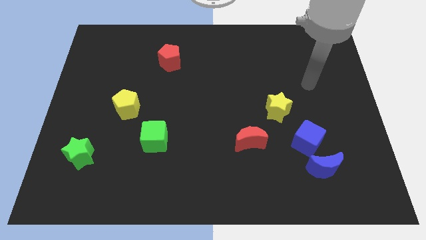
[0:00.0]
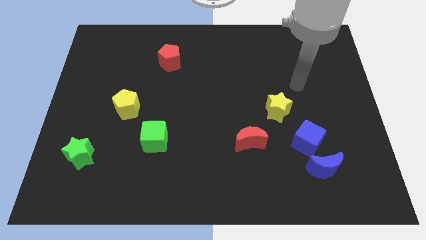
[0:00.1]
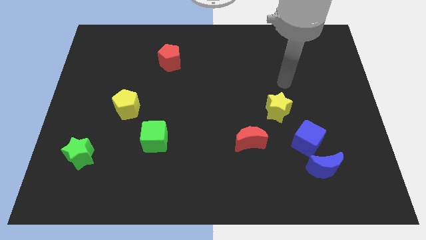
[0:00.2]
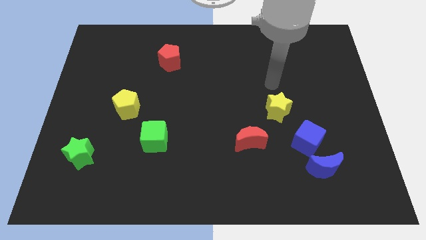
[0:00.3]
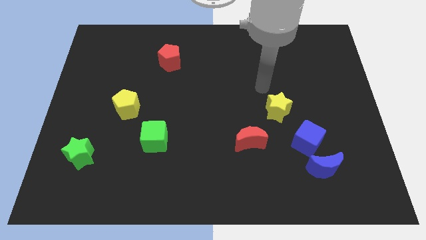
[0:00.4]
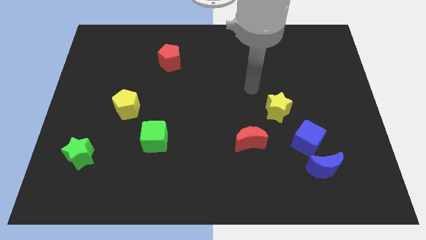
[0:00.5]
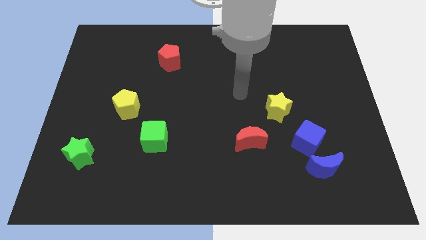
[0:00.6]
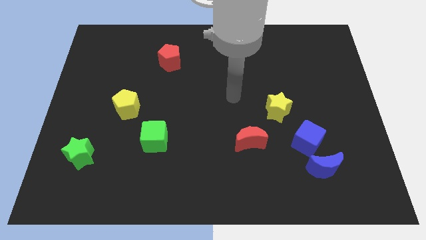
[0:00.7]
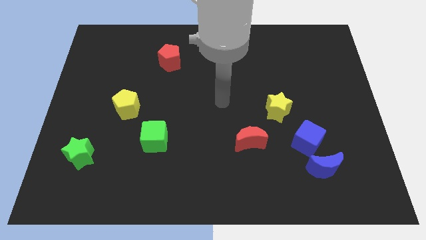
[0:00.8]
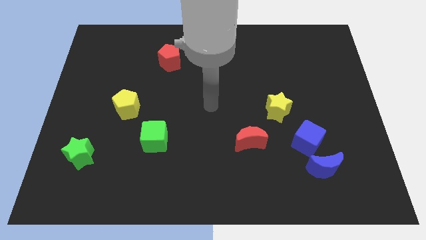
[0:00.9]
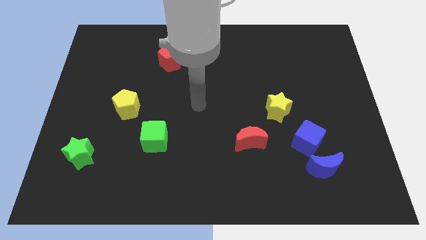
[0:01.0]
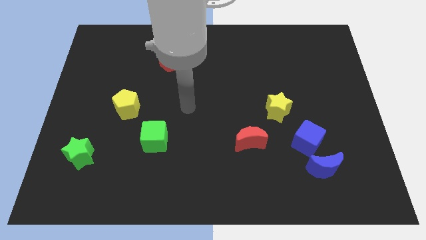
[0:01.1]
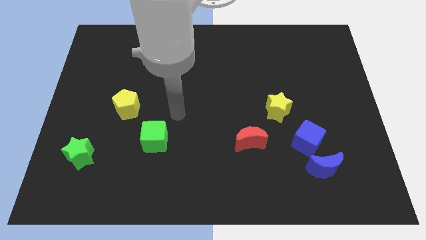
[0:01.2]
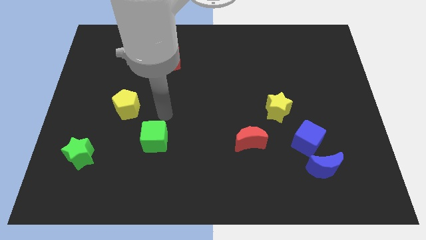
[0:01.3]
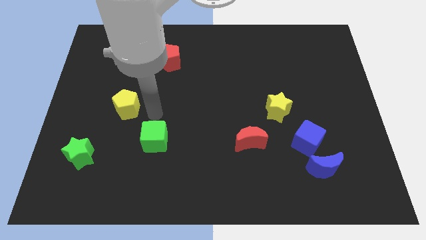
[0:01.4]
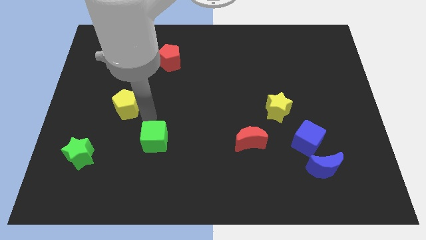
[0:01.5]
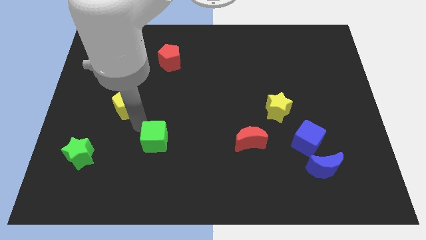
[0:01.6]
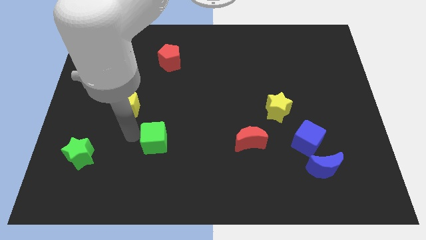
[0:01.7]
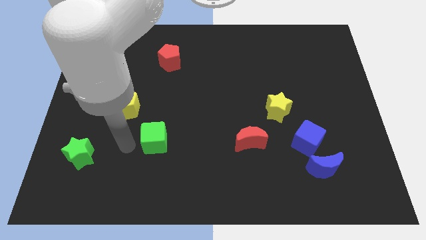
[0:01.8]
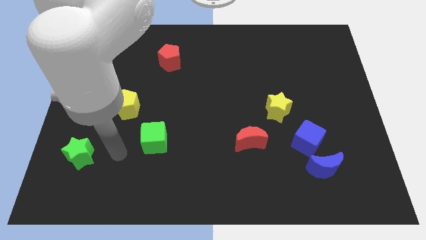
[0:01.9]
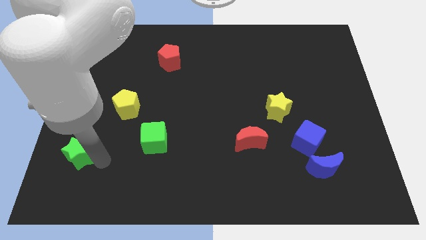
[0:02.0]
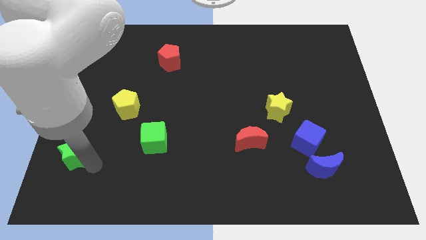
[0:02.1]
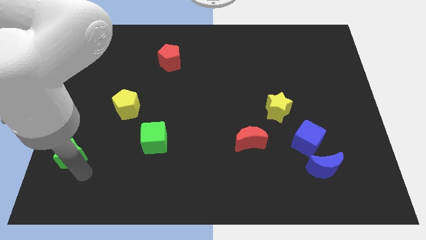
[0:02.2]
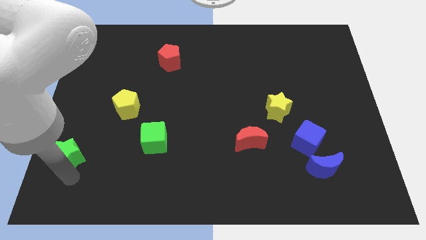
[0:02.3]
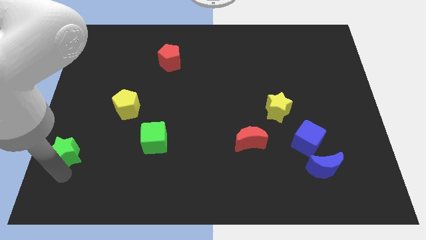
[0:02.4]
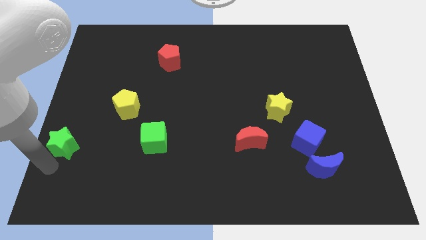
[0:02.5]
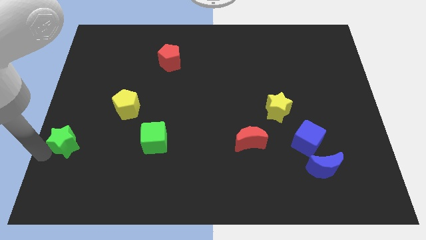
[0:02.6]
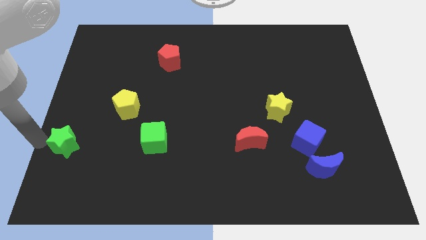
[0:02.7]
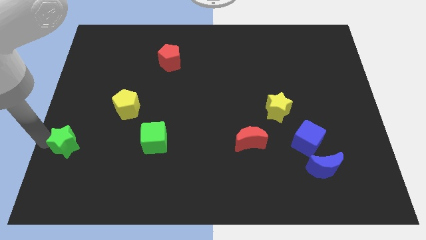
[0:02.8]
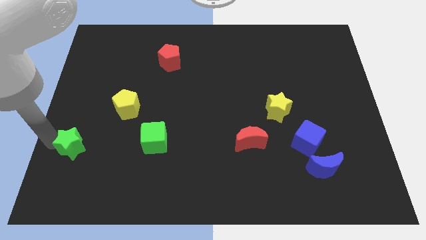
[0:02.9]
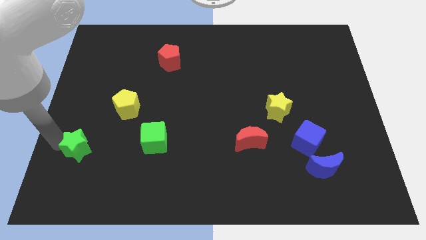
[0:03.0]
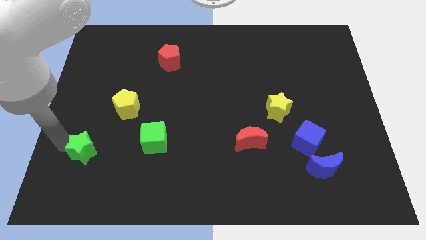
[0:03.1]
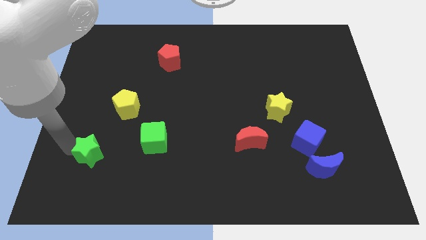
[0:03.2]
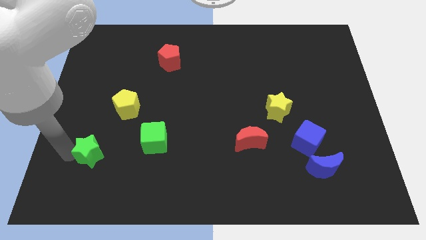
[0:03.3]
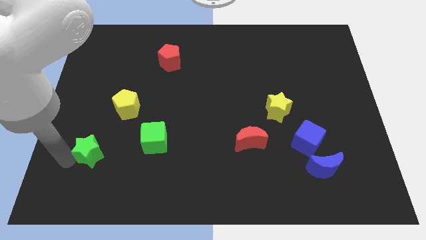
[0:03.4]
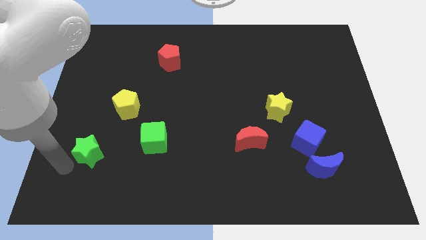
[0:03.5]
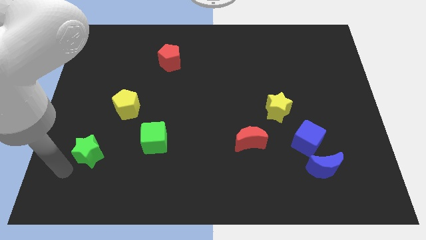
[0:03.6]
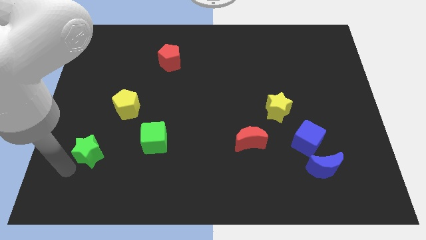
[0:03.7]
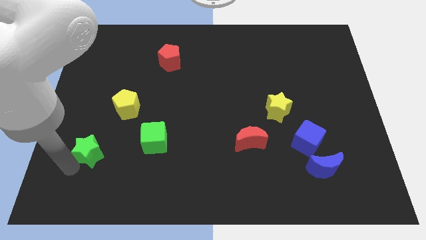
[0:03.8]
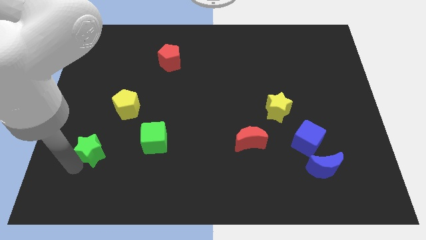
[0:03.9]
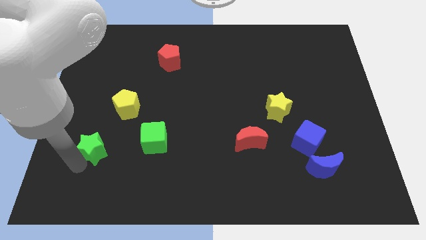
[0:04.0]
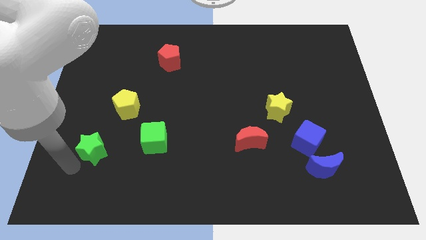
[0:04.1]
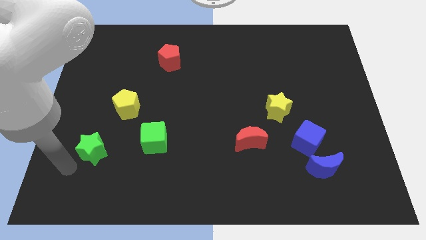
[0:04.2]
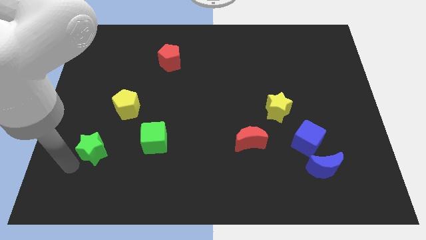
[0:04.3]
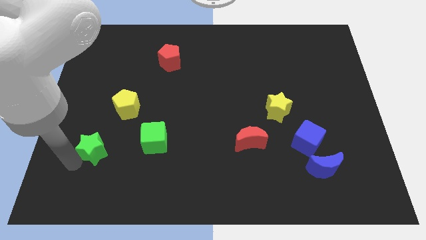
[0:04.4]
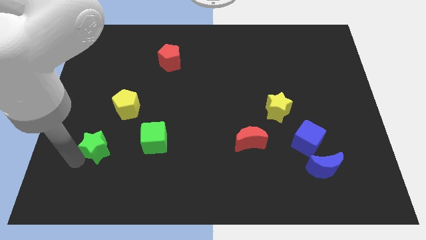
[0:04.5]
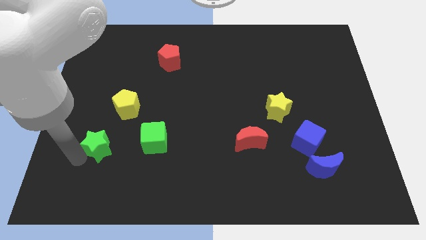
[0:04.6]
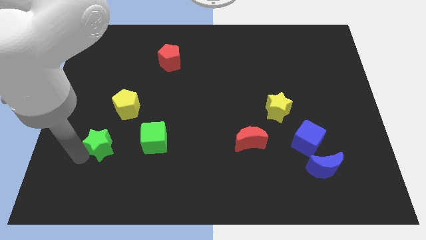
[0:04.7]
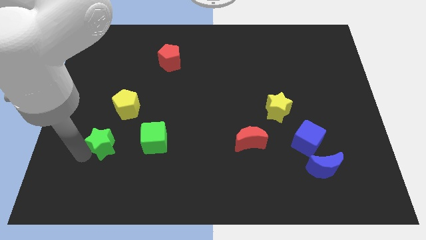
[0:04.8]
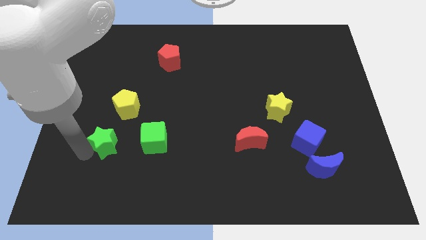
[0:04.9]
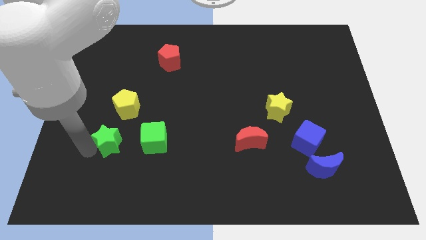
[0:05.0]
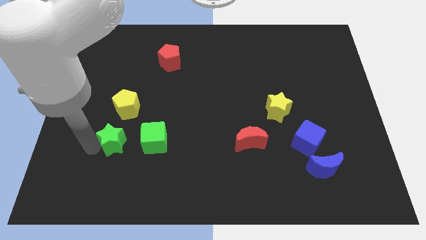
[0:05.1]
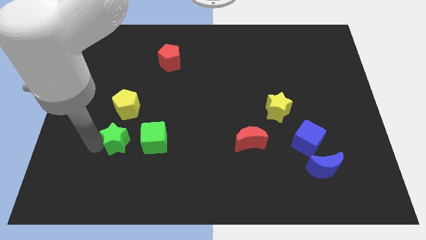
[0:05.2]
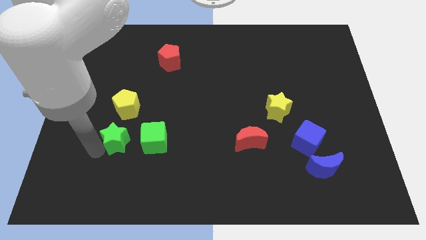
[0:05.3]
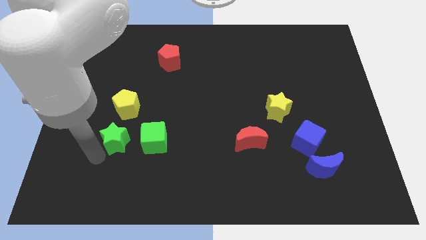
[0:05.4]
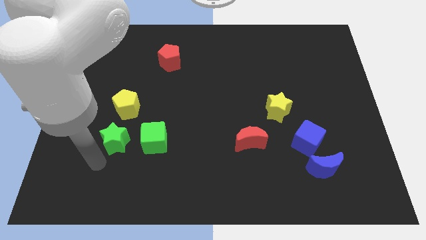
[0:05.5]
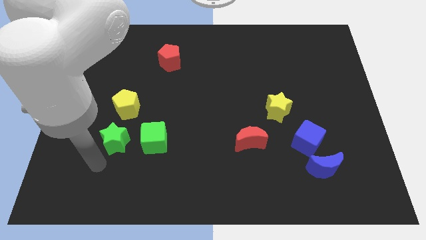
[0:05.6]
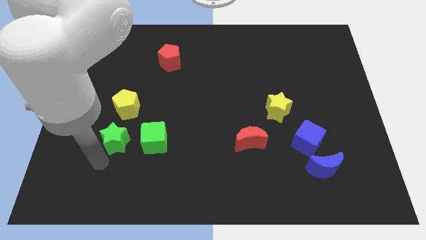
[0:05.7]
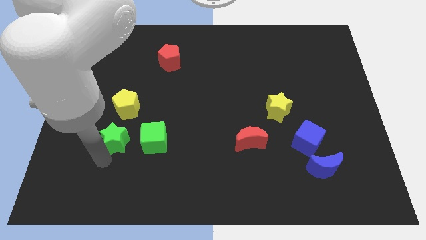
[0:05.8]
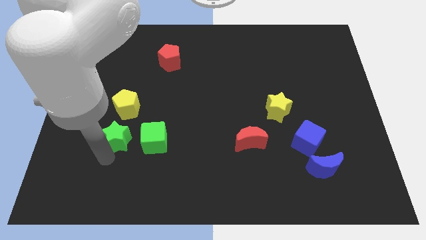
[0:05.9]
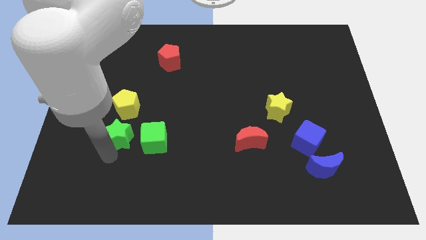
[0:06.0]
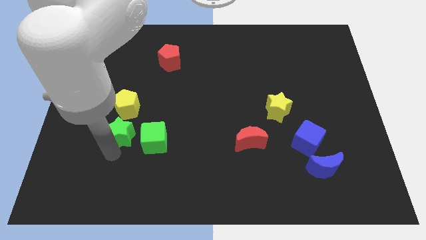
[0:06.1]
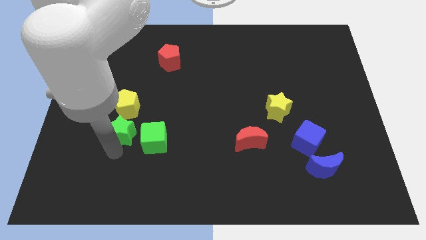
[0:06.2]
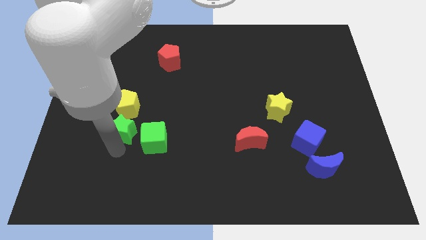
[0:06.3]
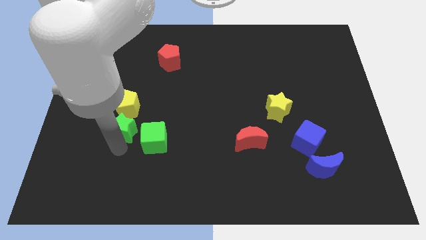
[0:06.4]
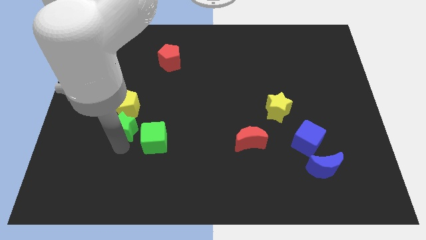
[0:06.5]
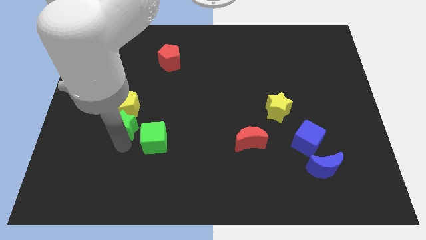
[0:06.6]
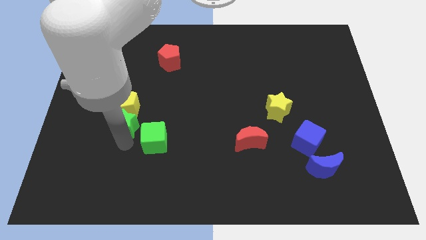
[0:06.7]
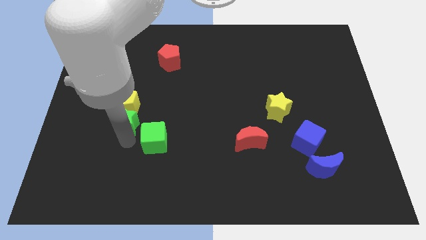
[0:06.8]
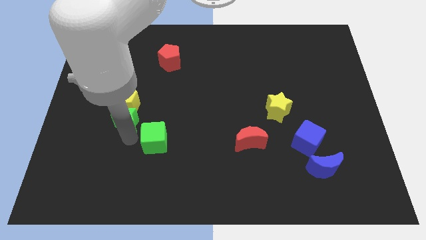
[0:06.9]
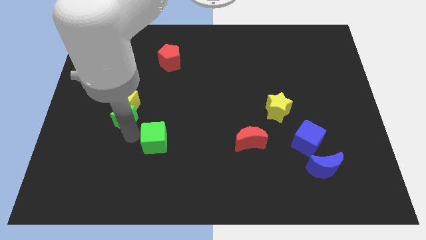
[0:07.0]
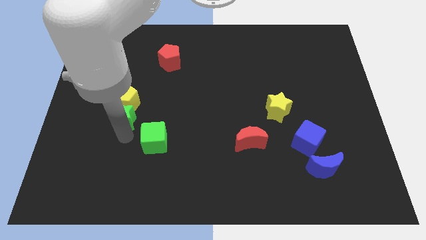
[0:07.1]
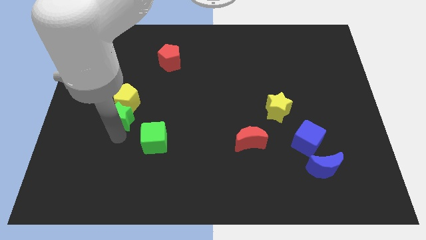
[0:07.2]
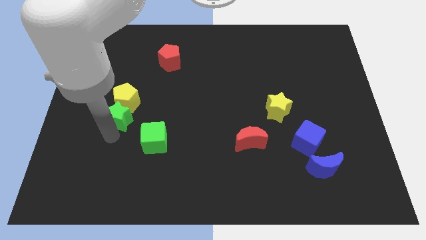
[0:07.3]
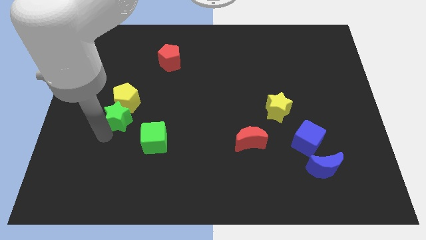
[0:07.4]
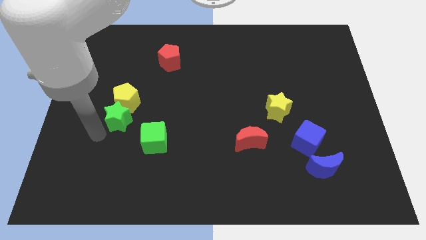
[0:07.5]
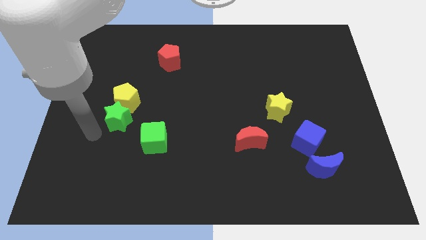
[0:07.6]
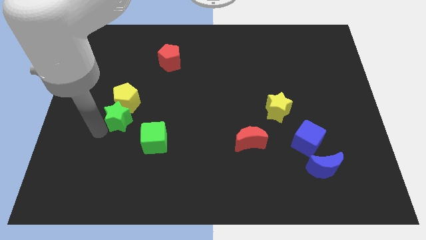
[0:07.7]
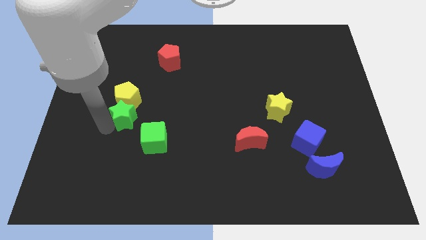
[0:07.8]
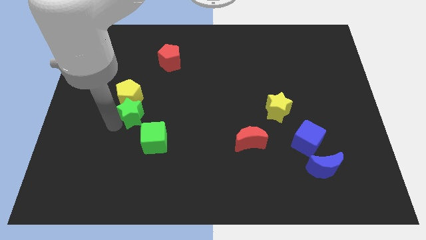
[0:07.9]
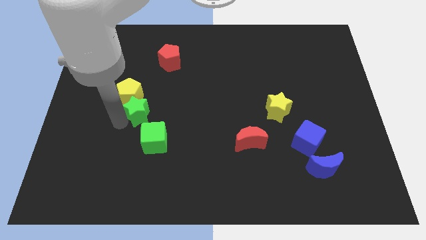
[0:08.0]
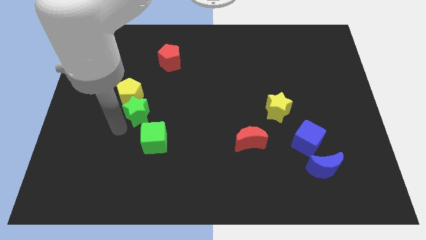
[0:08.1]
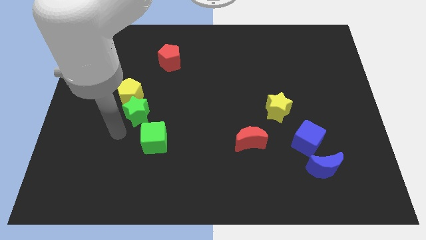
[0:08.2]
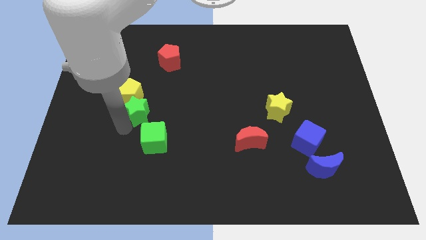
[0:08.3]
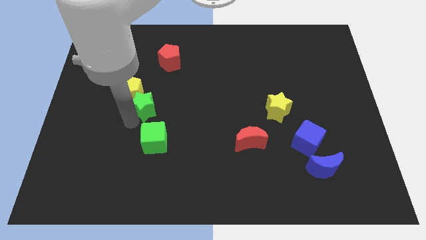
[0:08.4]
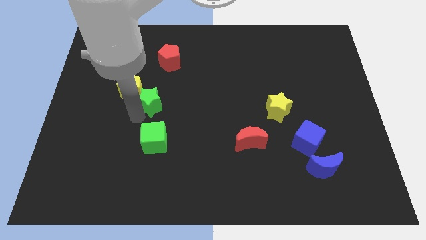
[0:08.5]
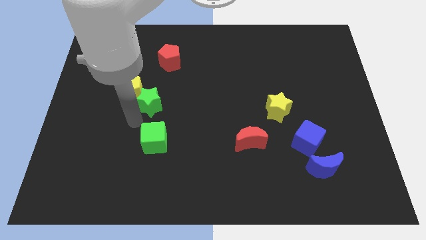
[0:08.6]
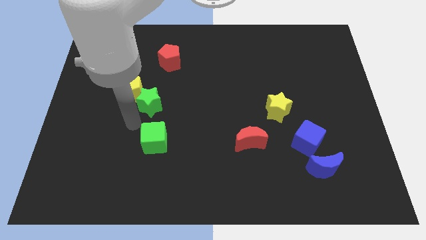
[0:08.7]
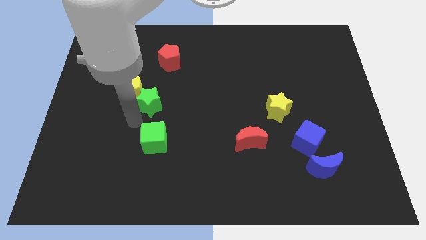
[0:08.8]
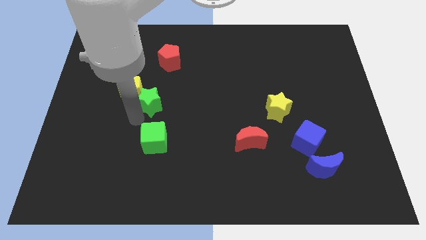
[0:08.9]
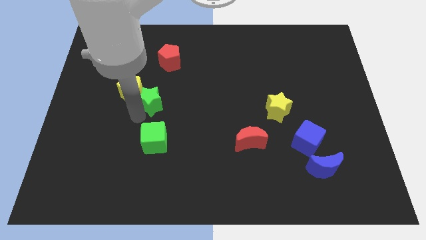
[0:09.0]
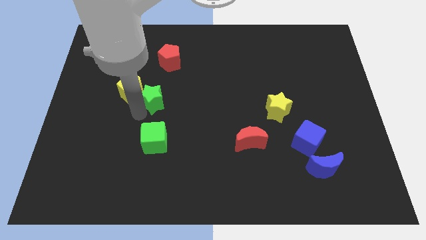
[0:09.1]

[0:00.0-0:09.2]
move the green star up and then to the right
